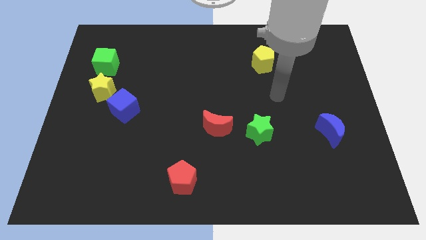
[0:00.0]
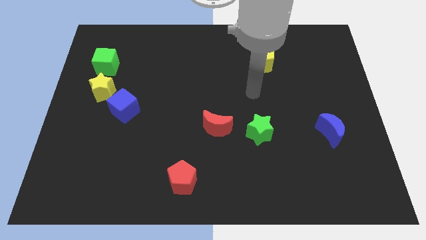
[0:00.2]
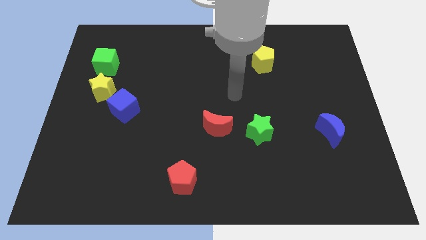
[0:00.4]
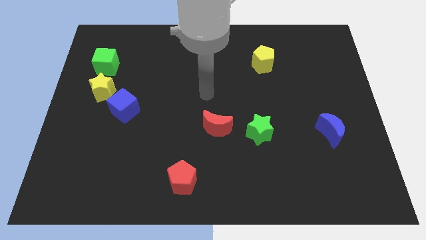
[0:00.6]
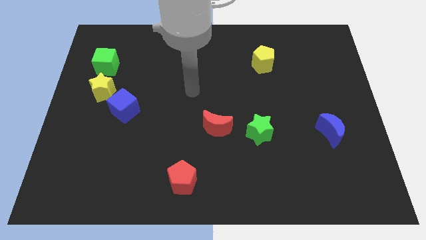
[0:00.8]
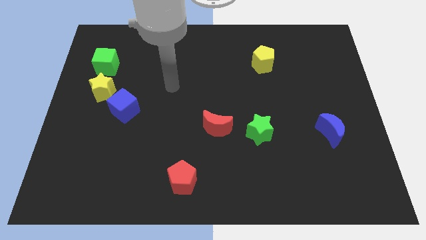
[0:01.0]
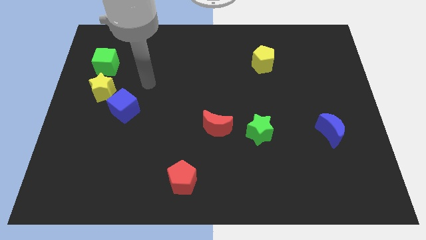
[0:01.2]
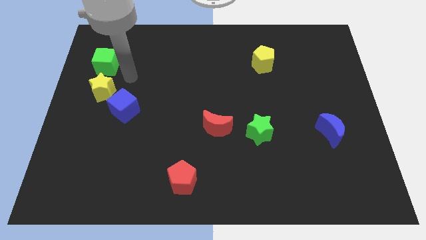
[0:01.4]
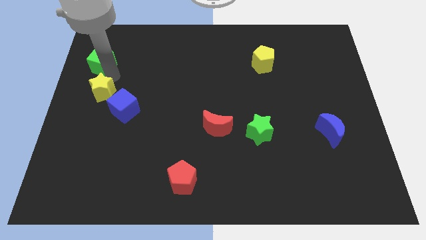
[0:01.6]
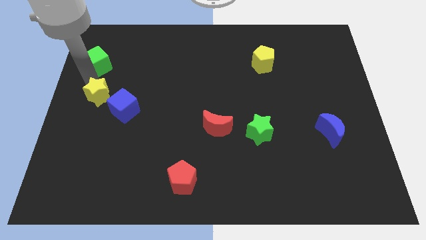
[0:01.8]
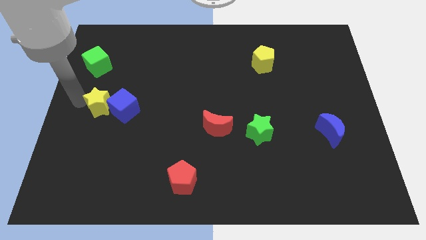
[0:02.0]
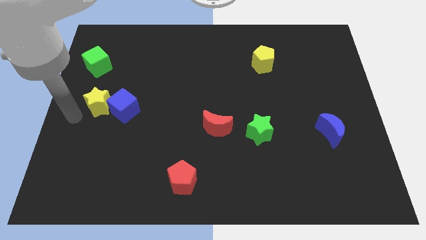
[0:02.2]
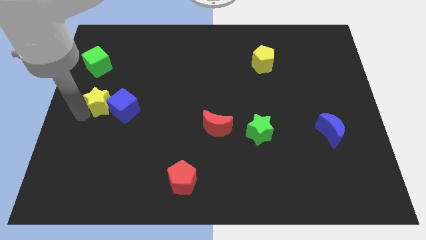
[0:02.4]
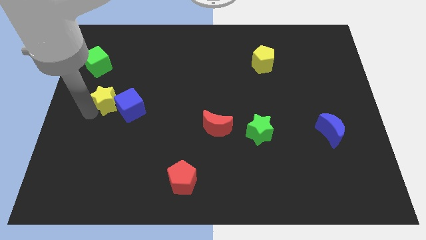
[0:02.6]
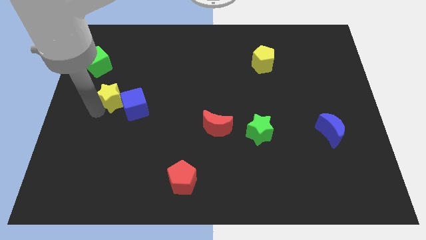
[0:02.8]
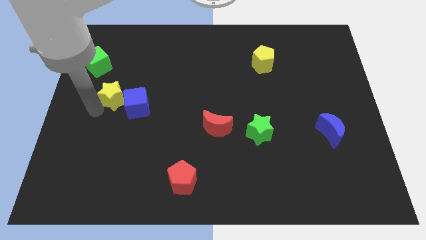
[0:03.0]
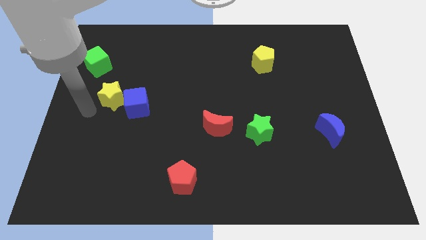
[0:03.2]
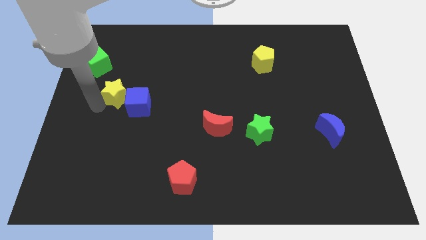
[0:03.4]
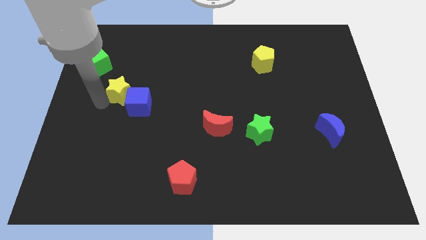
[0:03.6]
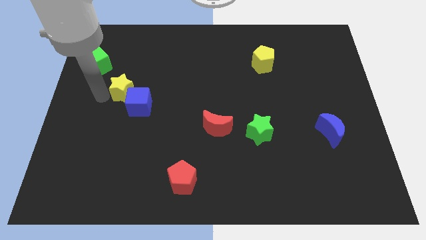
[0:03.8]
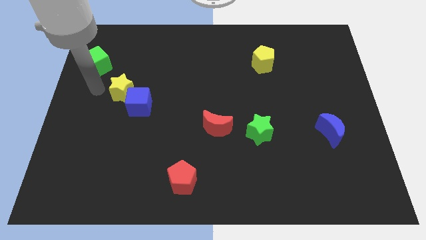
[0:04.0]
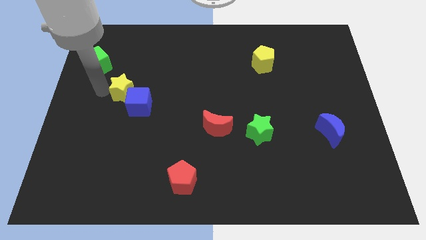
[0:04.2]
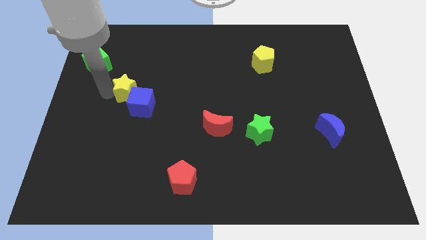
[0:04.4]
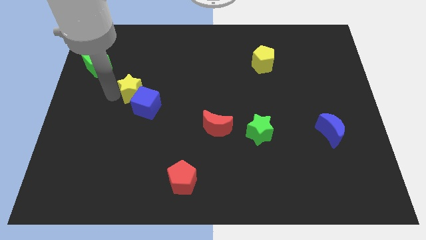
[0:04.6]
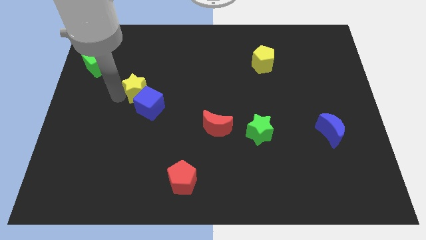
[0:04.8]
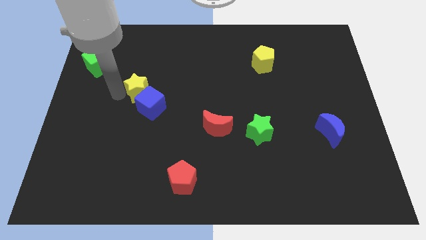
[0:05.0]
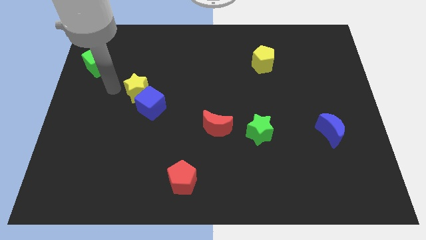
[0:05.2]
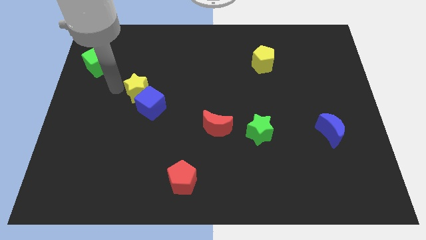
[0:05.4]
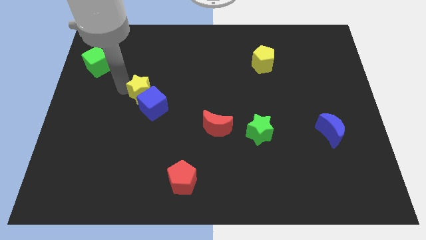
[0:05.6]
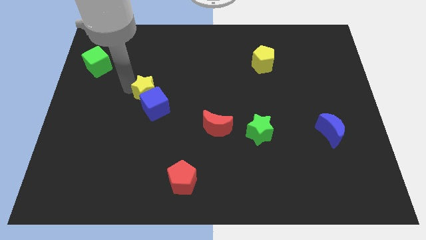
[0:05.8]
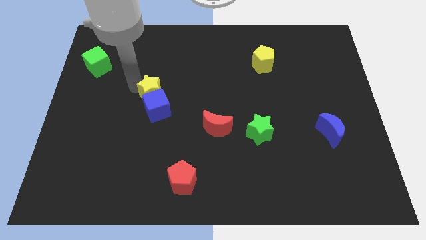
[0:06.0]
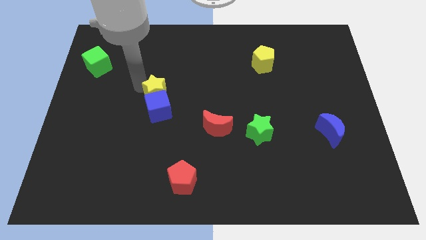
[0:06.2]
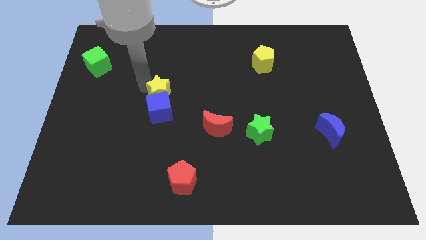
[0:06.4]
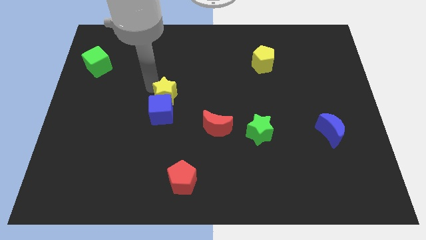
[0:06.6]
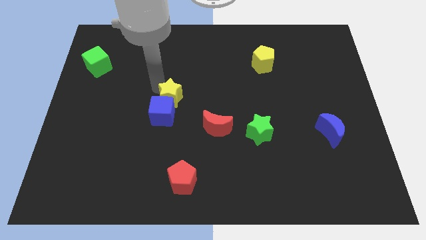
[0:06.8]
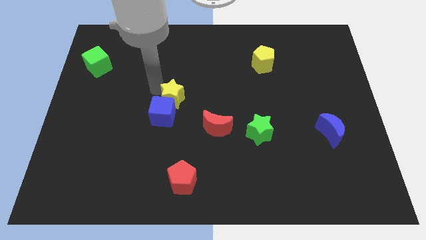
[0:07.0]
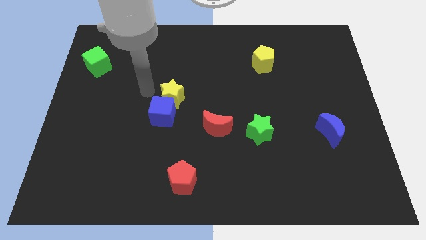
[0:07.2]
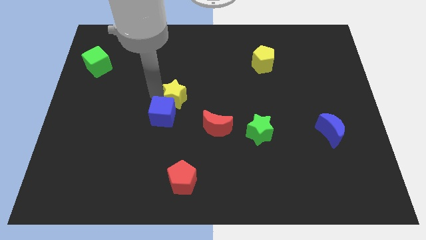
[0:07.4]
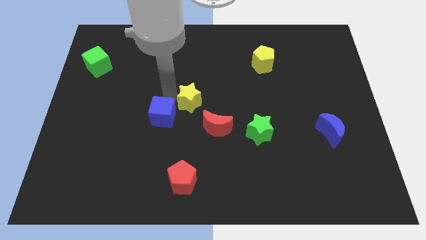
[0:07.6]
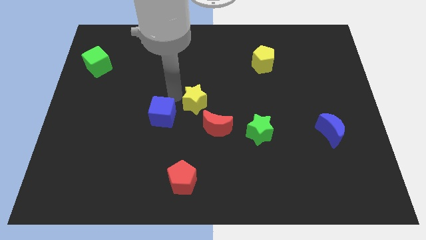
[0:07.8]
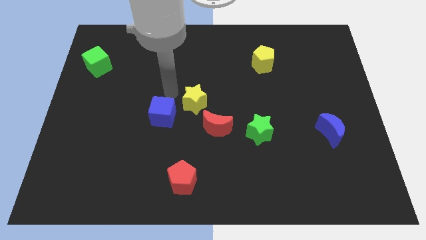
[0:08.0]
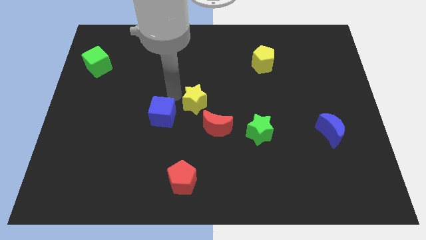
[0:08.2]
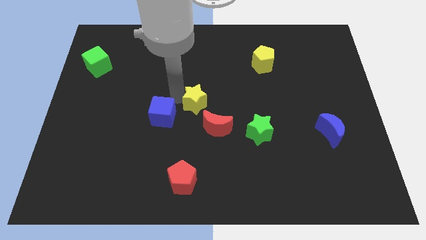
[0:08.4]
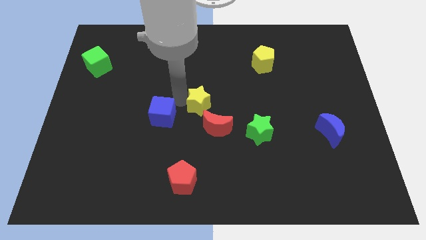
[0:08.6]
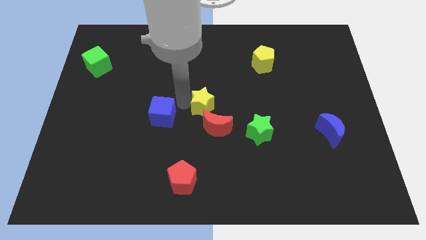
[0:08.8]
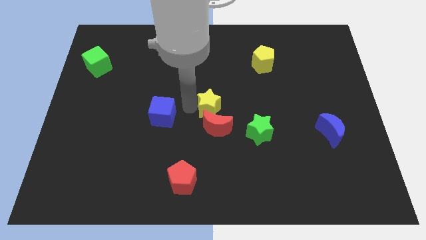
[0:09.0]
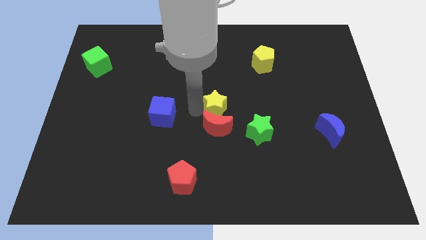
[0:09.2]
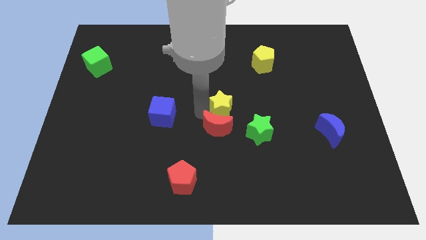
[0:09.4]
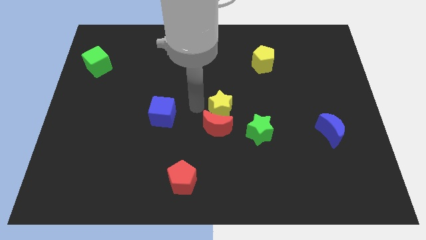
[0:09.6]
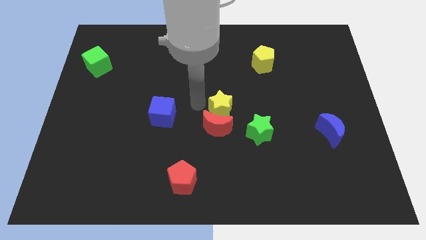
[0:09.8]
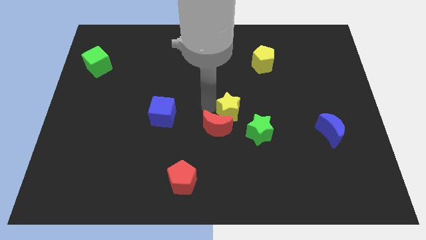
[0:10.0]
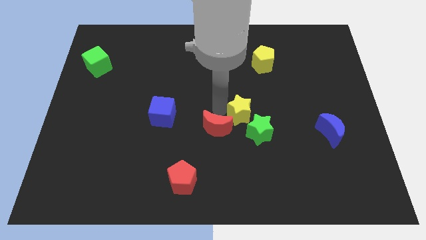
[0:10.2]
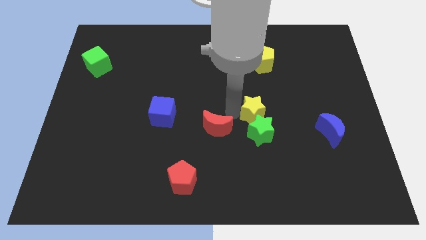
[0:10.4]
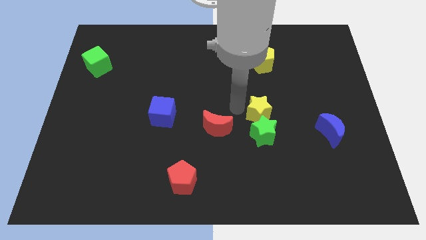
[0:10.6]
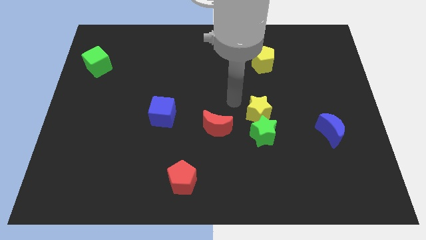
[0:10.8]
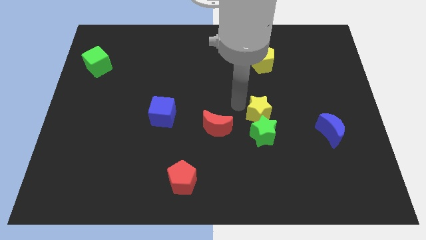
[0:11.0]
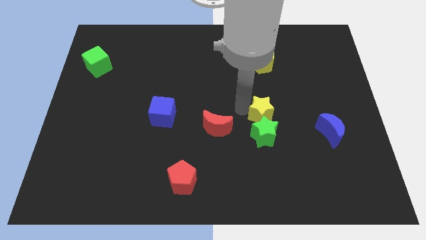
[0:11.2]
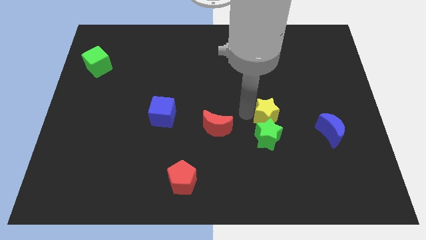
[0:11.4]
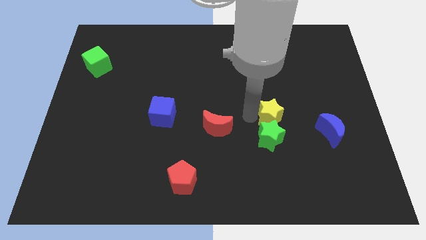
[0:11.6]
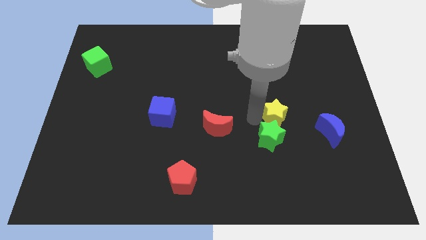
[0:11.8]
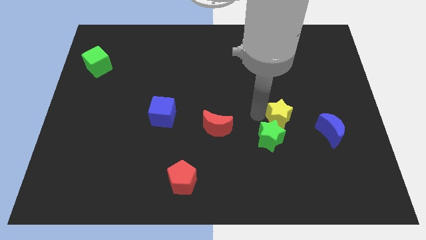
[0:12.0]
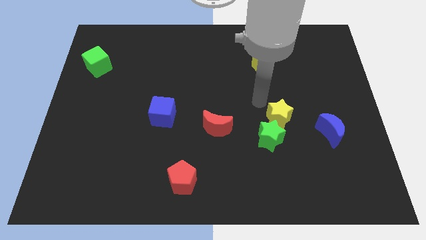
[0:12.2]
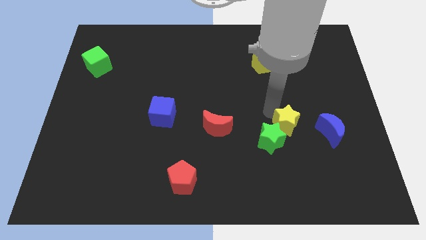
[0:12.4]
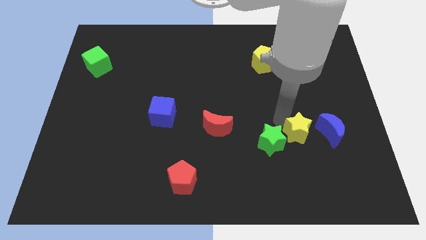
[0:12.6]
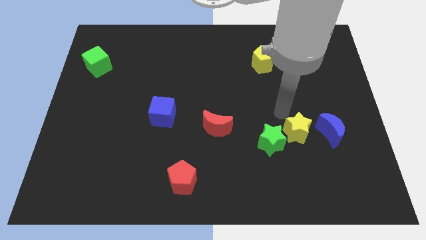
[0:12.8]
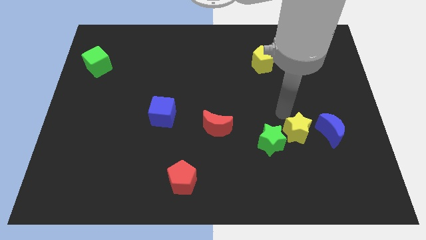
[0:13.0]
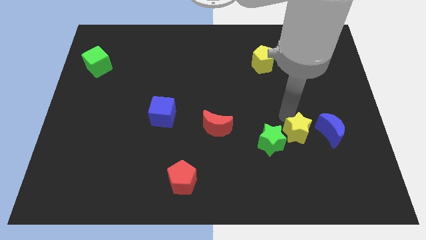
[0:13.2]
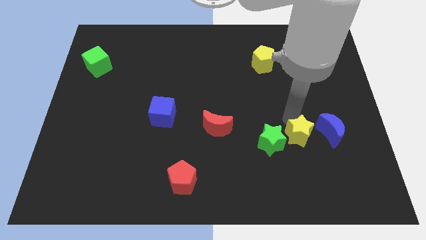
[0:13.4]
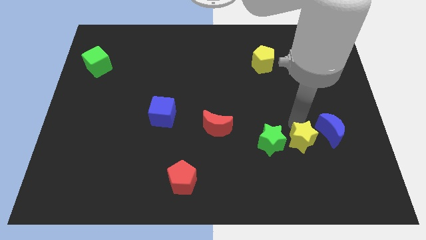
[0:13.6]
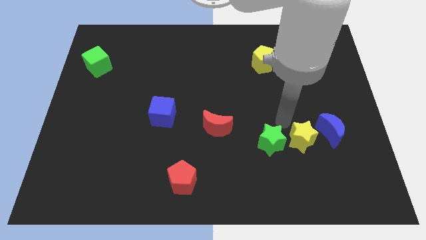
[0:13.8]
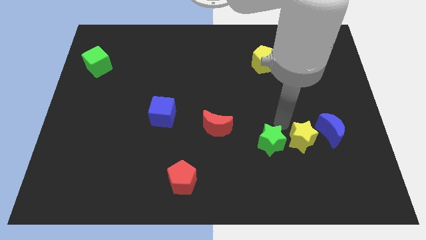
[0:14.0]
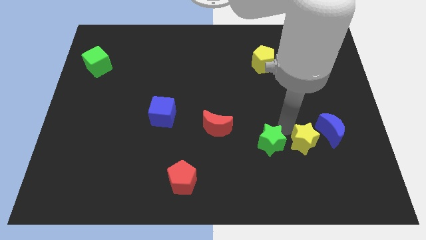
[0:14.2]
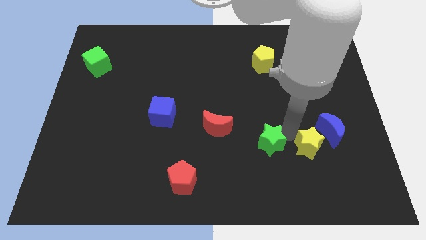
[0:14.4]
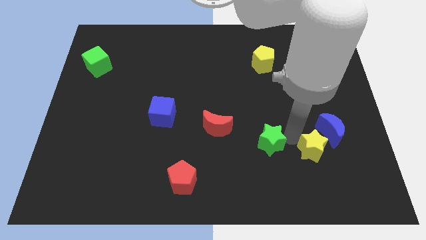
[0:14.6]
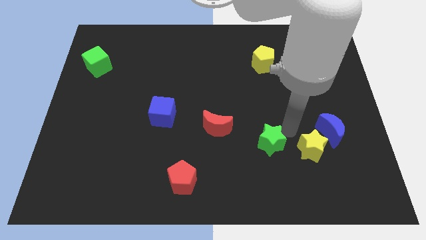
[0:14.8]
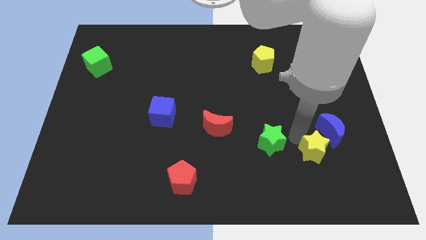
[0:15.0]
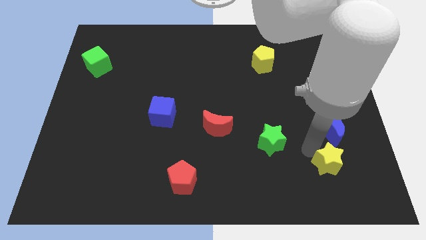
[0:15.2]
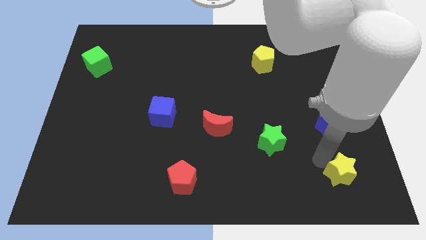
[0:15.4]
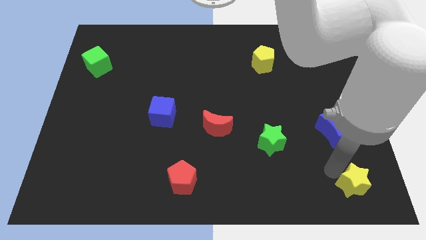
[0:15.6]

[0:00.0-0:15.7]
move the yellow star to the bottom right of the board
